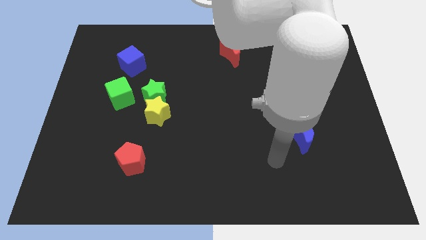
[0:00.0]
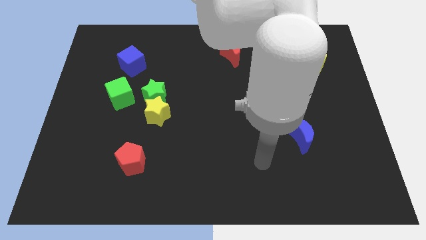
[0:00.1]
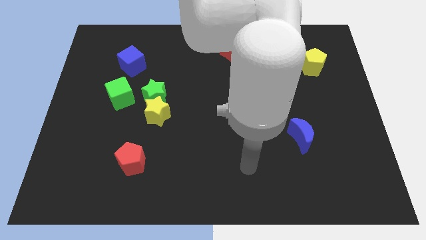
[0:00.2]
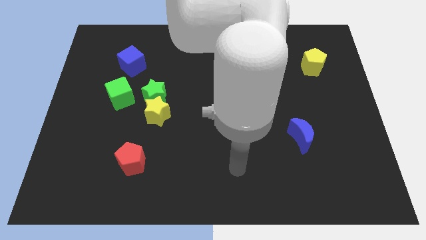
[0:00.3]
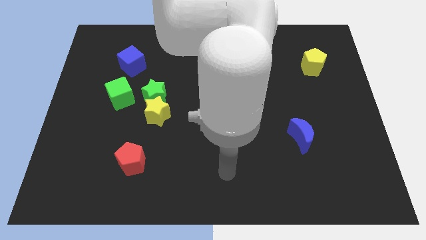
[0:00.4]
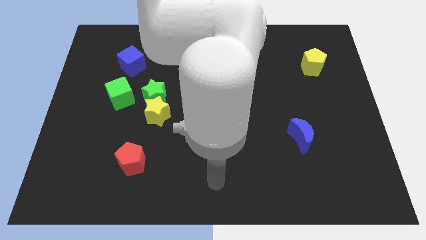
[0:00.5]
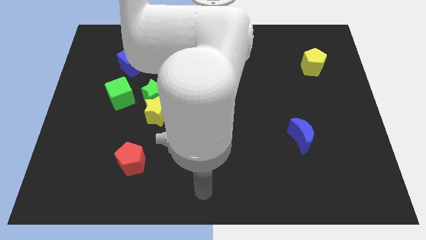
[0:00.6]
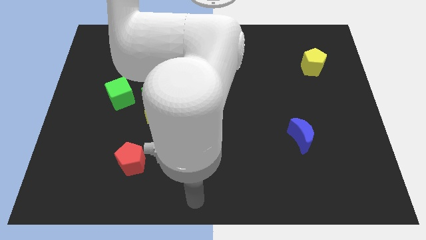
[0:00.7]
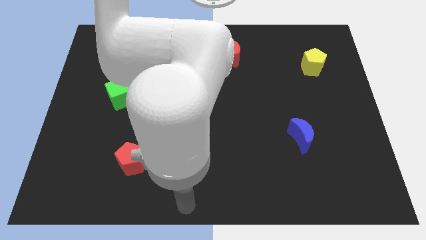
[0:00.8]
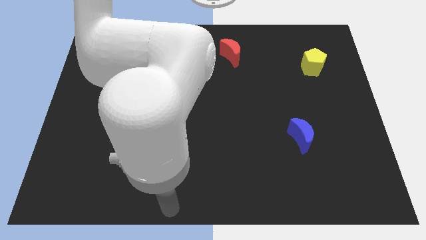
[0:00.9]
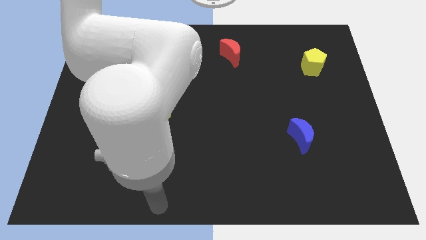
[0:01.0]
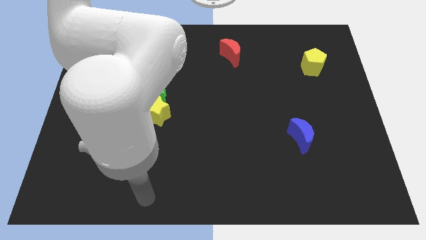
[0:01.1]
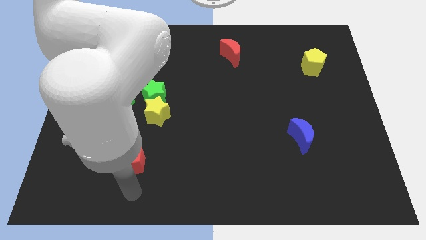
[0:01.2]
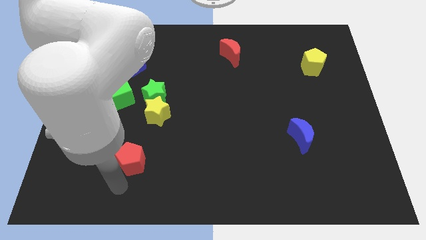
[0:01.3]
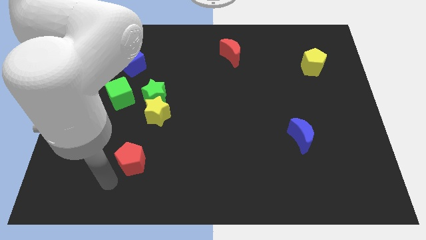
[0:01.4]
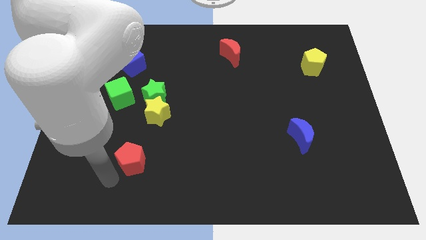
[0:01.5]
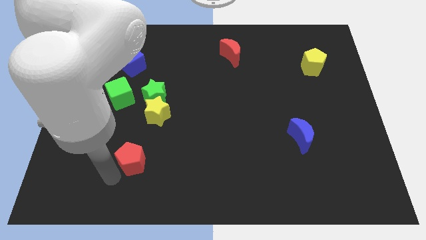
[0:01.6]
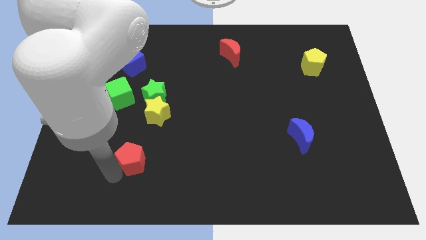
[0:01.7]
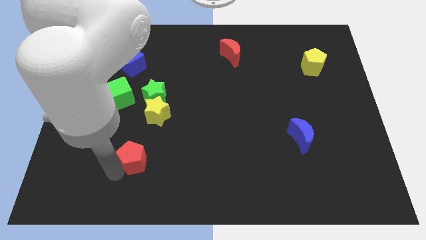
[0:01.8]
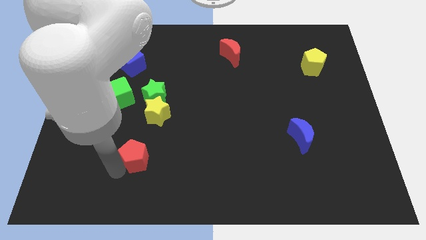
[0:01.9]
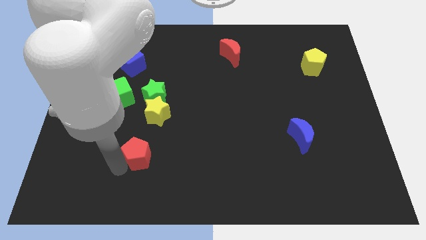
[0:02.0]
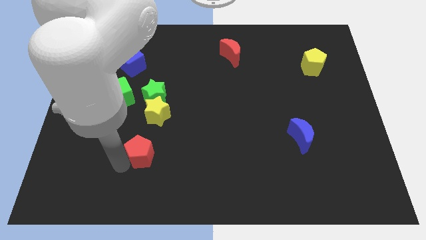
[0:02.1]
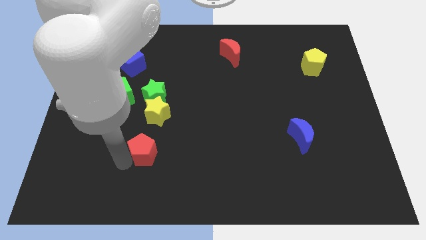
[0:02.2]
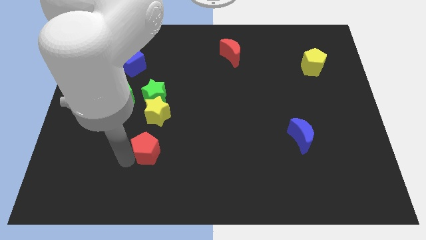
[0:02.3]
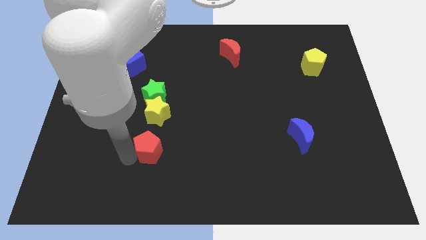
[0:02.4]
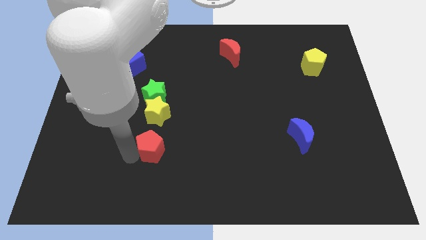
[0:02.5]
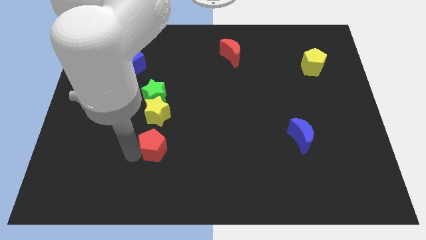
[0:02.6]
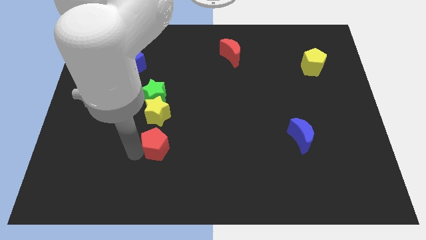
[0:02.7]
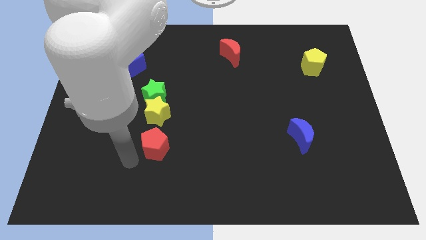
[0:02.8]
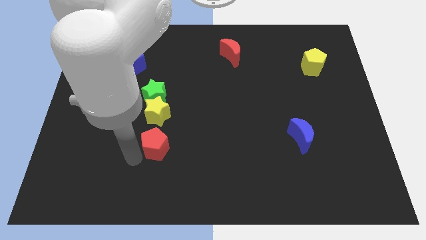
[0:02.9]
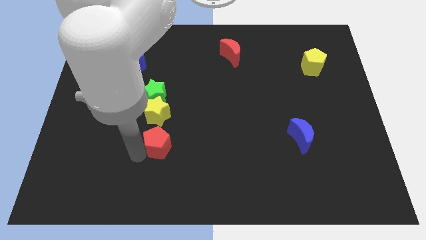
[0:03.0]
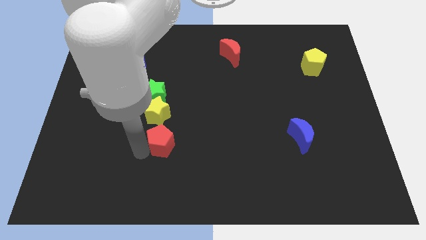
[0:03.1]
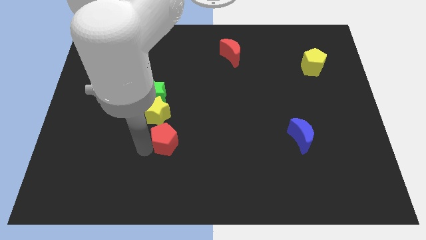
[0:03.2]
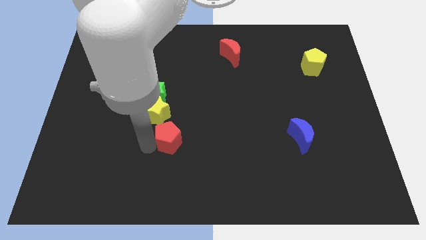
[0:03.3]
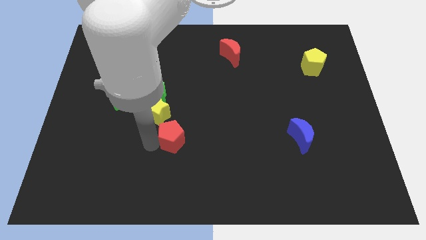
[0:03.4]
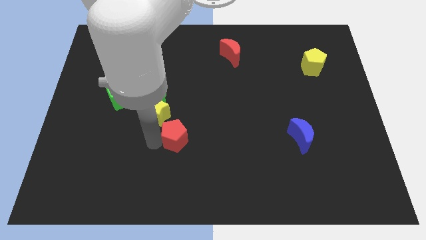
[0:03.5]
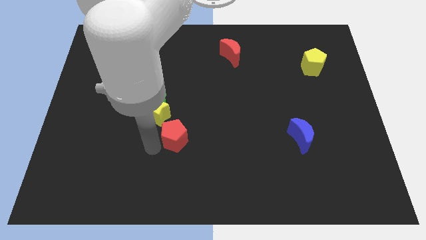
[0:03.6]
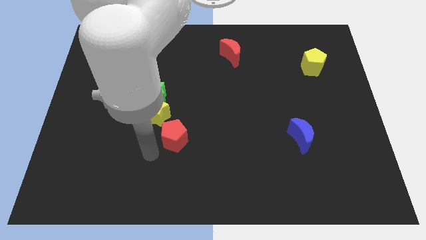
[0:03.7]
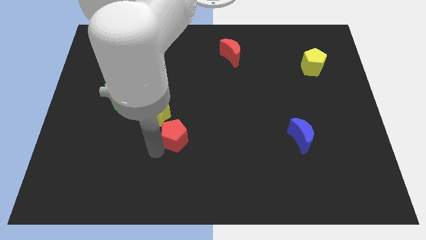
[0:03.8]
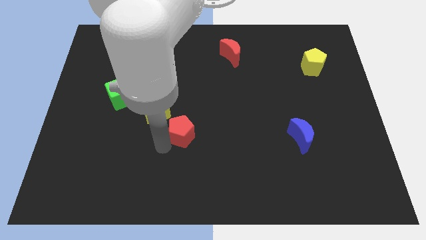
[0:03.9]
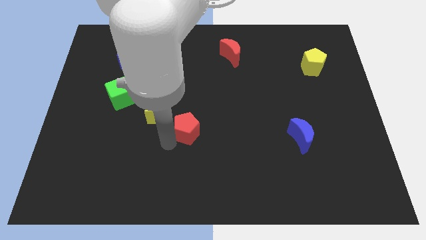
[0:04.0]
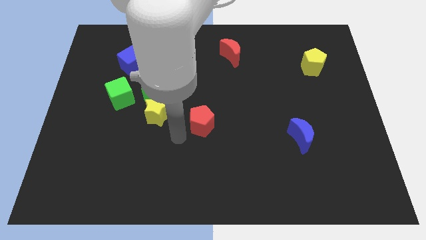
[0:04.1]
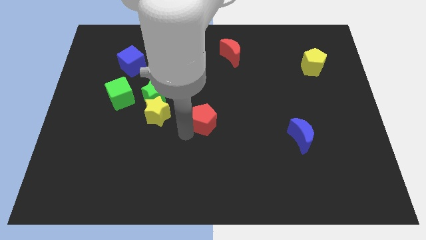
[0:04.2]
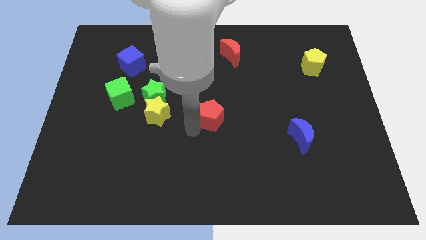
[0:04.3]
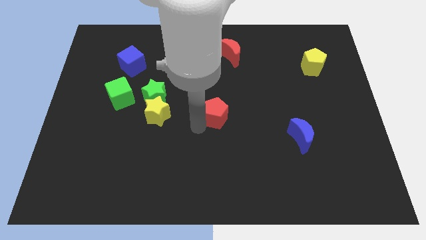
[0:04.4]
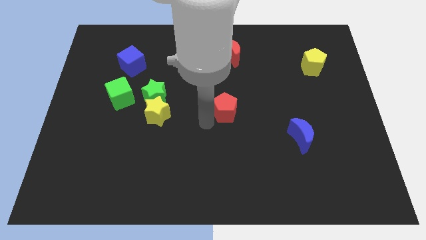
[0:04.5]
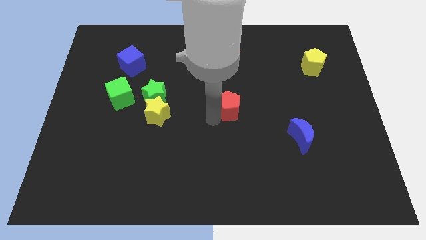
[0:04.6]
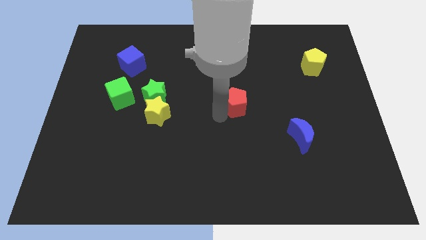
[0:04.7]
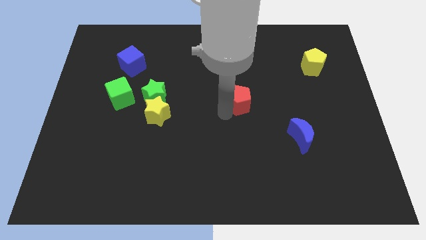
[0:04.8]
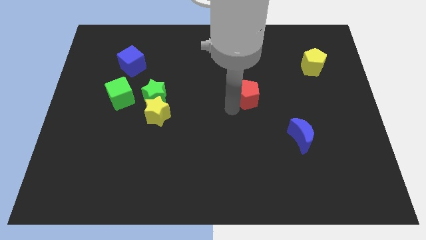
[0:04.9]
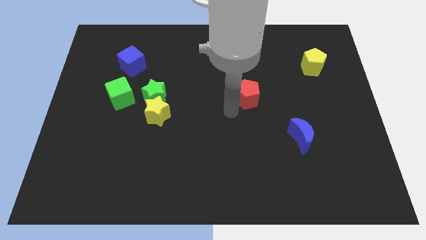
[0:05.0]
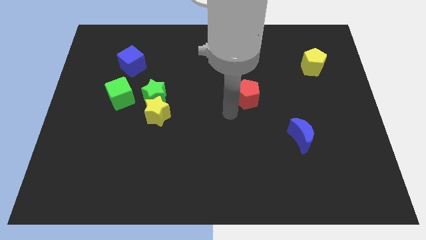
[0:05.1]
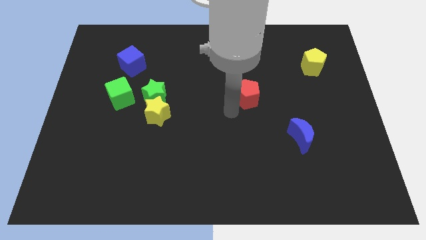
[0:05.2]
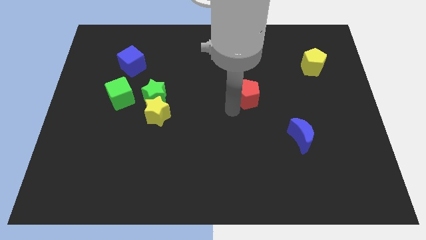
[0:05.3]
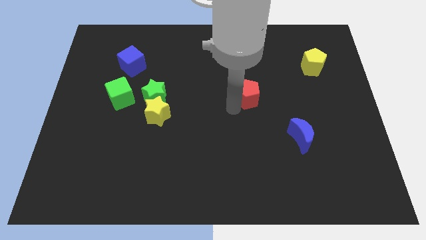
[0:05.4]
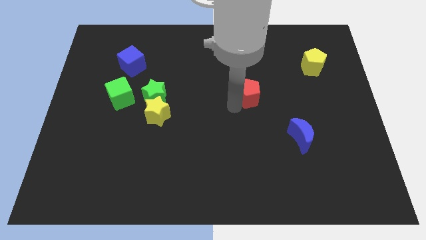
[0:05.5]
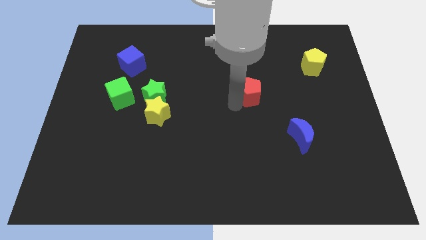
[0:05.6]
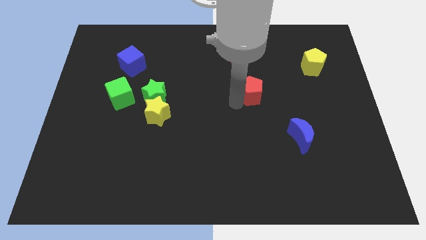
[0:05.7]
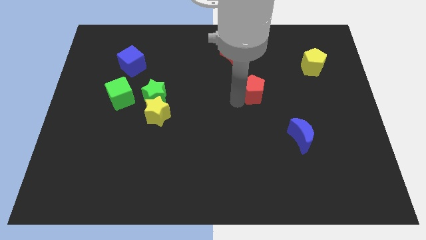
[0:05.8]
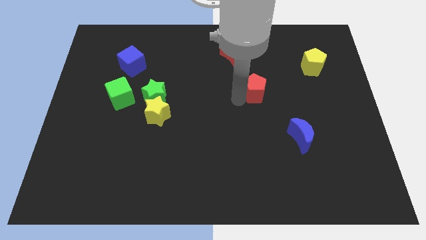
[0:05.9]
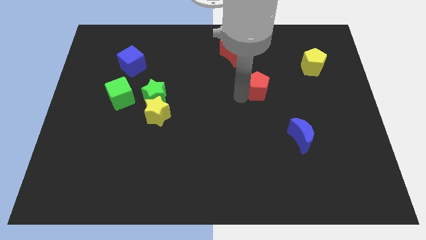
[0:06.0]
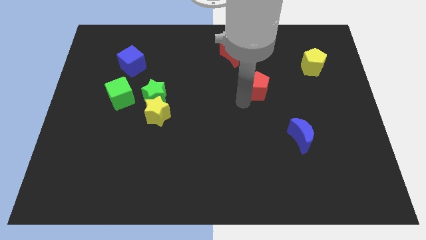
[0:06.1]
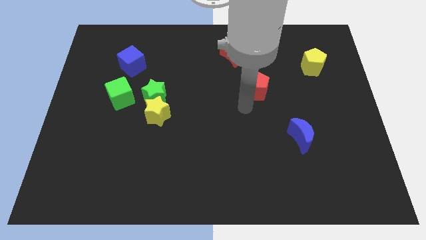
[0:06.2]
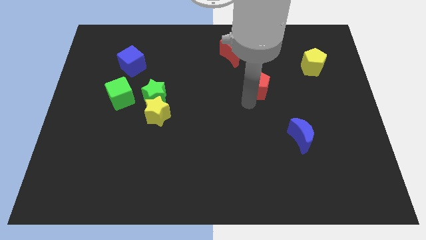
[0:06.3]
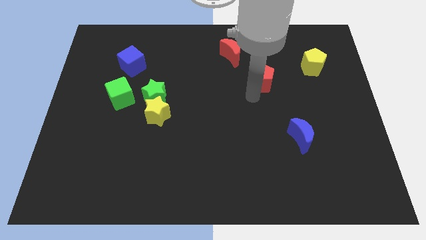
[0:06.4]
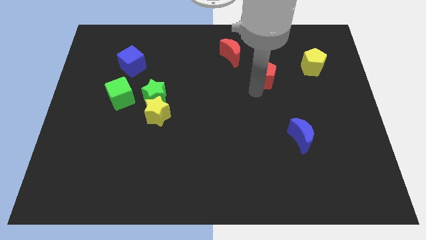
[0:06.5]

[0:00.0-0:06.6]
move the red pentagon just left of the yellow pentagon

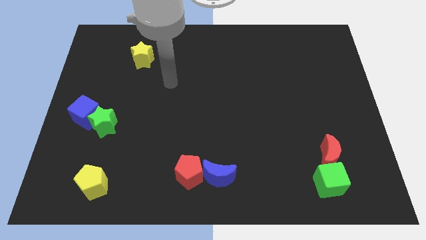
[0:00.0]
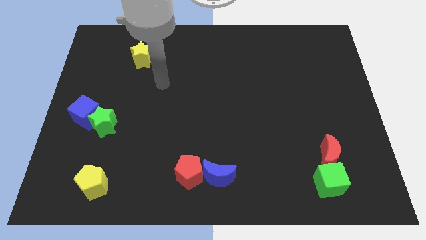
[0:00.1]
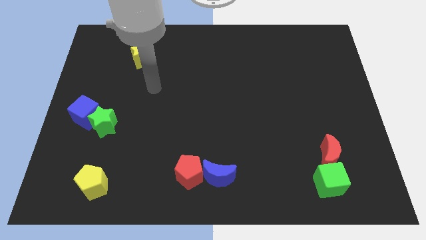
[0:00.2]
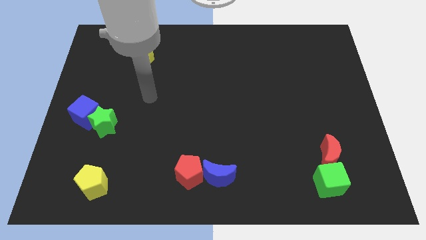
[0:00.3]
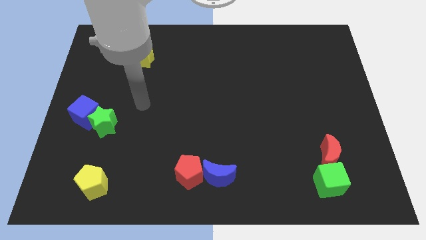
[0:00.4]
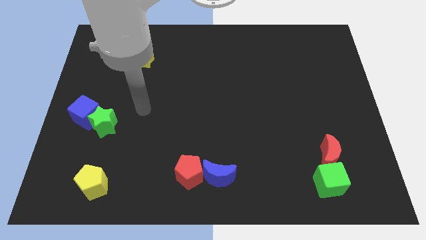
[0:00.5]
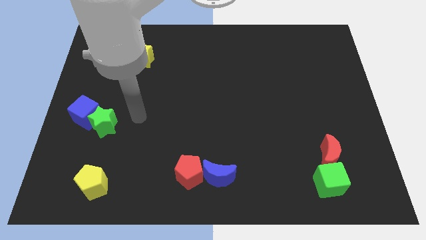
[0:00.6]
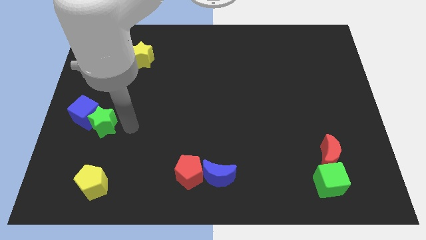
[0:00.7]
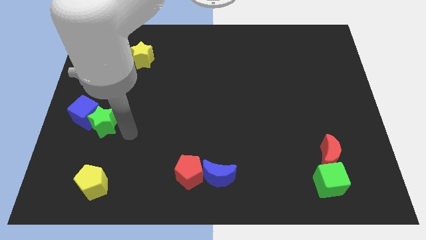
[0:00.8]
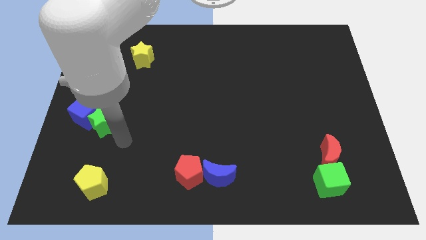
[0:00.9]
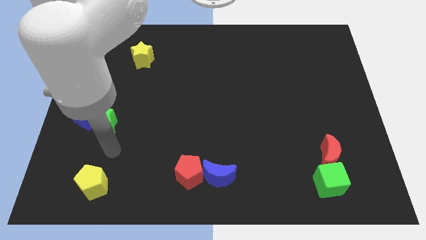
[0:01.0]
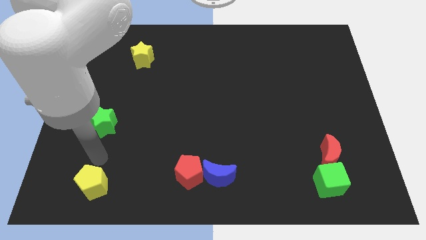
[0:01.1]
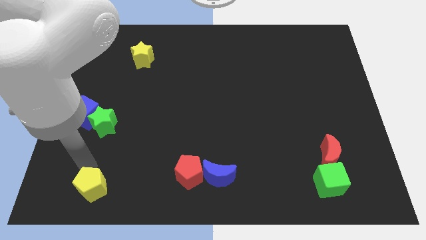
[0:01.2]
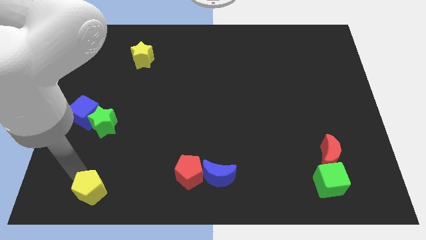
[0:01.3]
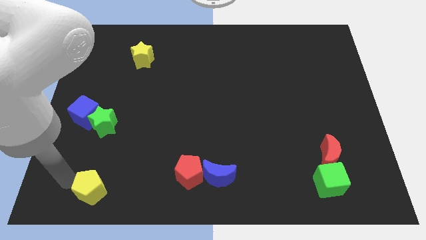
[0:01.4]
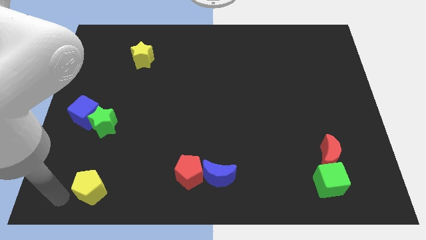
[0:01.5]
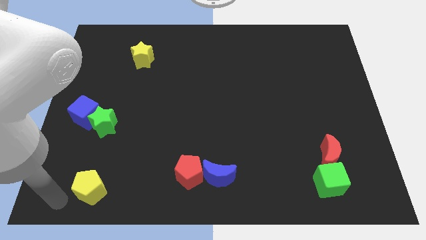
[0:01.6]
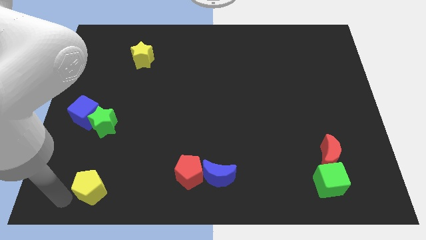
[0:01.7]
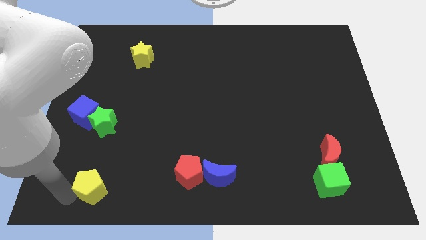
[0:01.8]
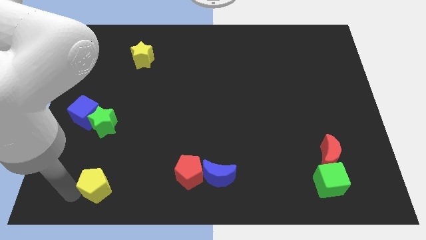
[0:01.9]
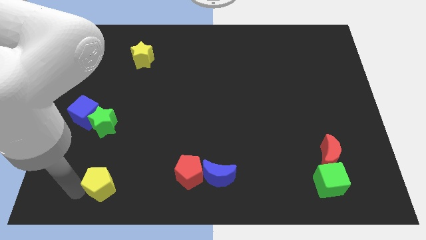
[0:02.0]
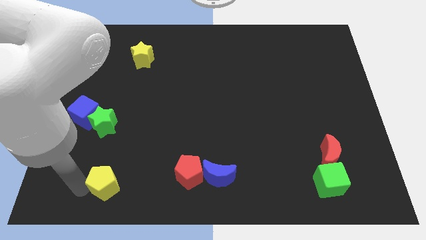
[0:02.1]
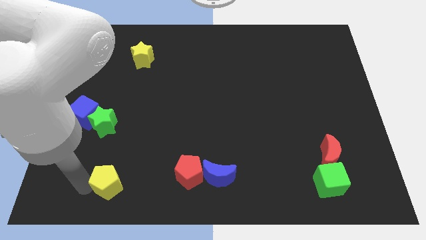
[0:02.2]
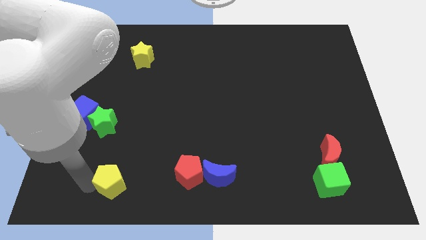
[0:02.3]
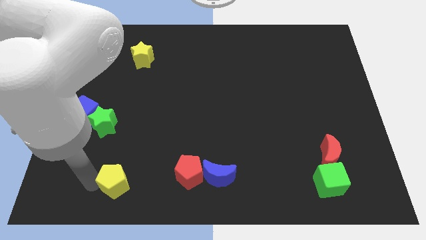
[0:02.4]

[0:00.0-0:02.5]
push the yellow pentagon to the left side of the red pentagon
